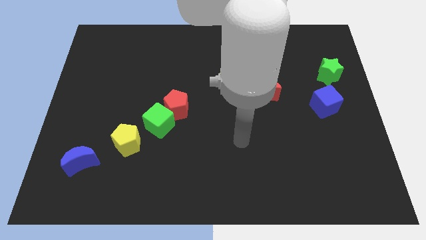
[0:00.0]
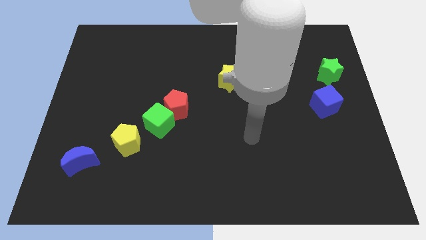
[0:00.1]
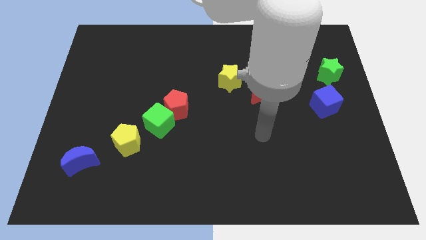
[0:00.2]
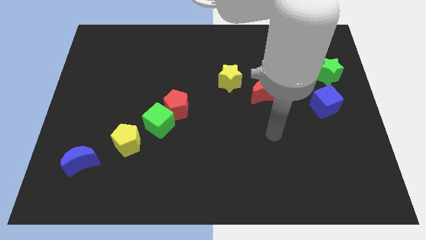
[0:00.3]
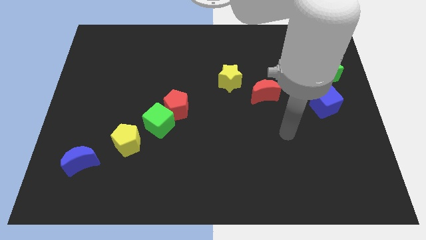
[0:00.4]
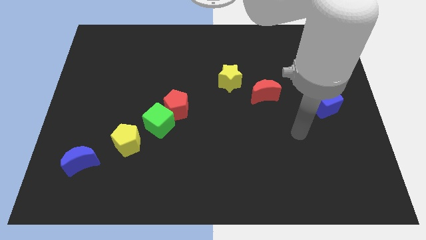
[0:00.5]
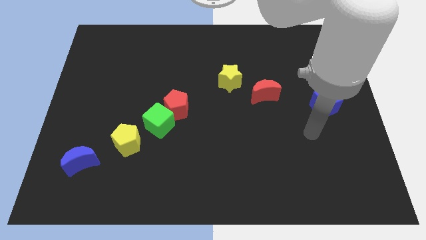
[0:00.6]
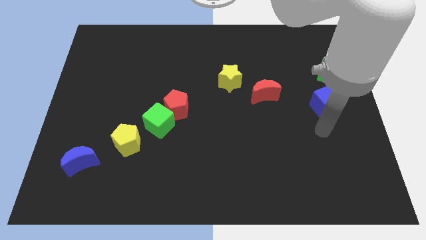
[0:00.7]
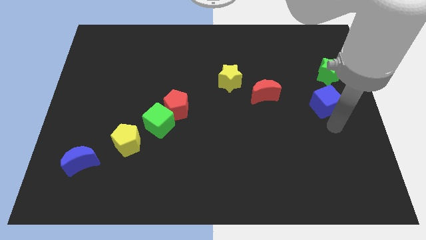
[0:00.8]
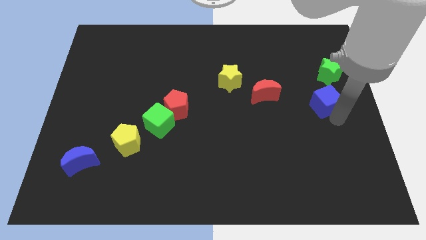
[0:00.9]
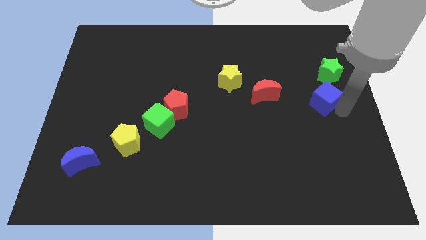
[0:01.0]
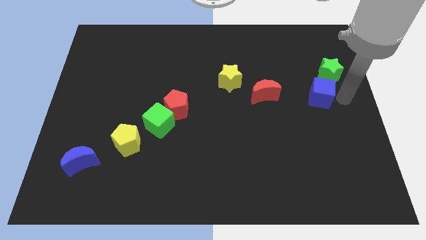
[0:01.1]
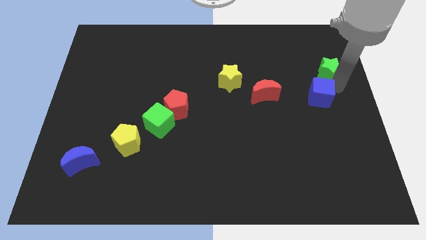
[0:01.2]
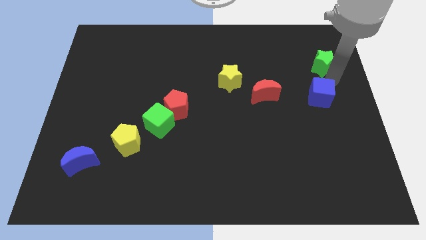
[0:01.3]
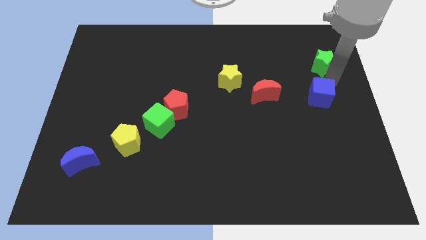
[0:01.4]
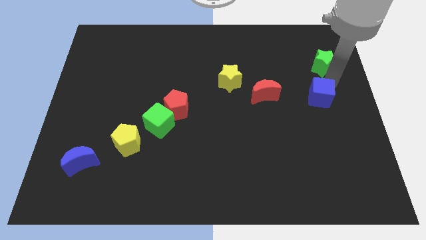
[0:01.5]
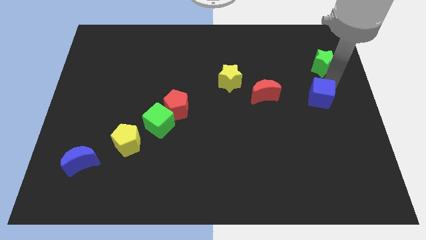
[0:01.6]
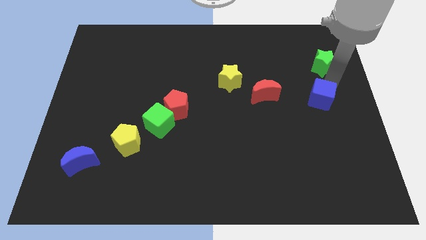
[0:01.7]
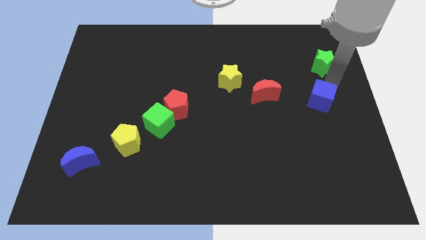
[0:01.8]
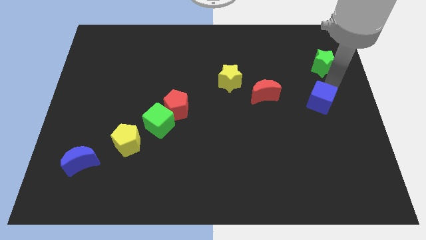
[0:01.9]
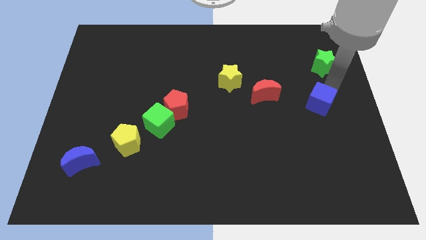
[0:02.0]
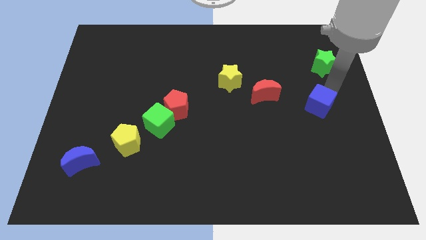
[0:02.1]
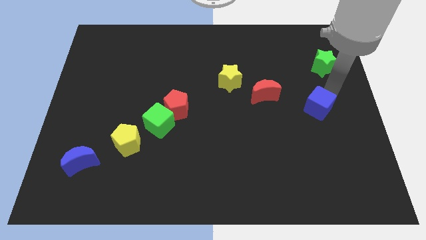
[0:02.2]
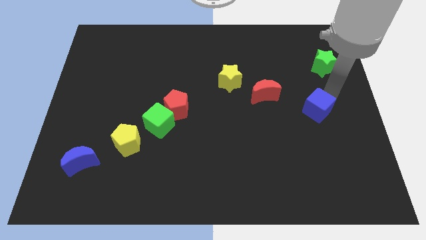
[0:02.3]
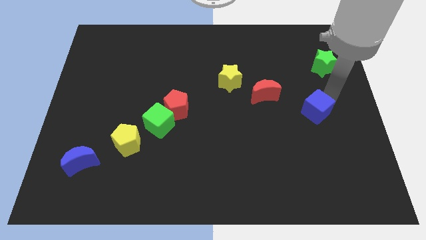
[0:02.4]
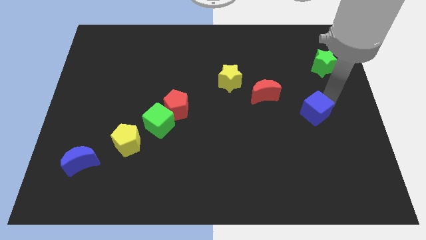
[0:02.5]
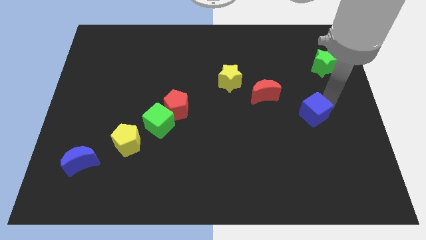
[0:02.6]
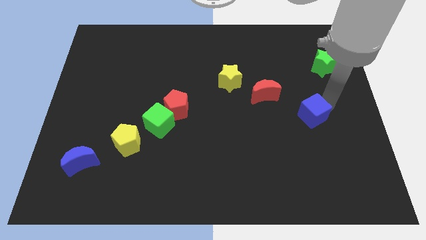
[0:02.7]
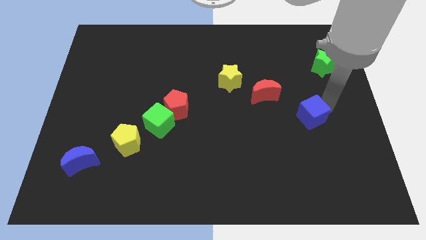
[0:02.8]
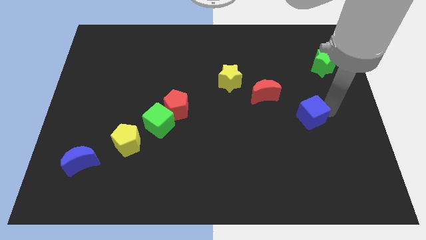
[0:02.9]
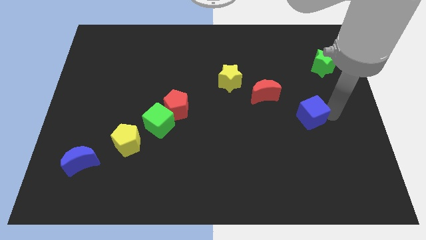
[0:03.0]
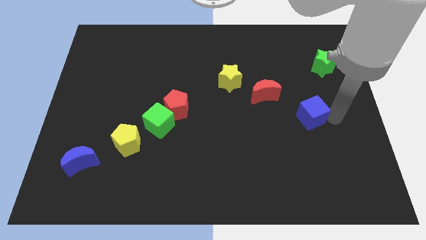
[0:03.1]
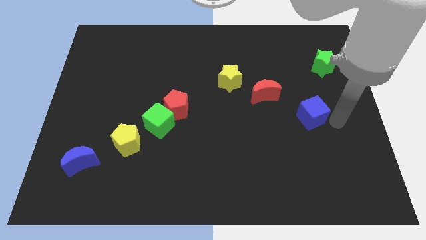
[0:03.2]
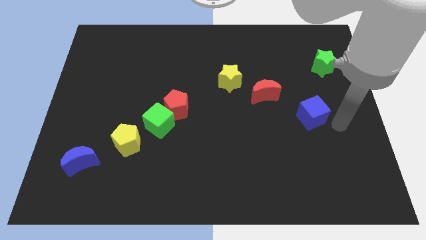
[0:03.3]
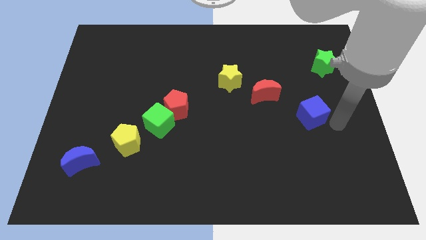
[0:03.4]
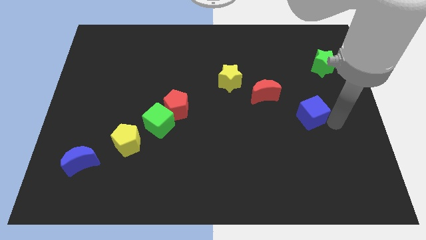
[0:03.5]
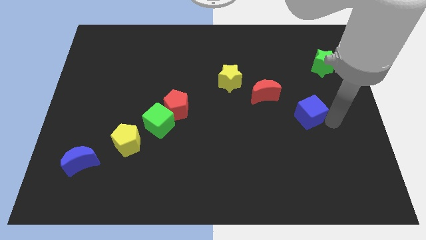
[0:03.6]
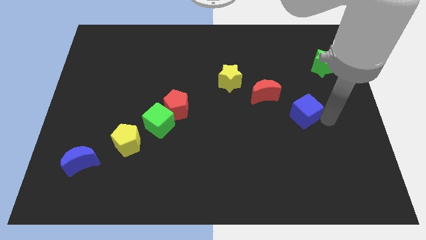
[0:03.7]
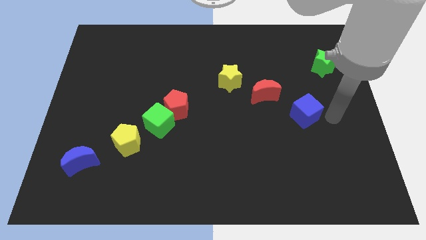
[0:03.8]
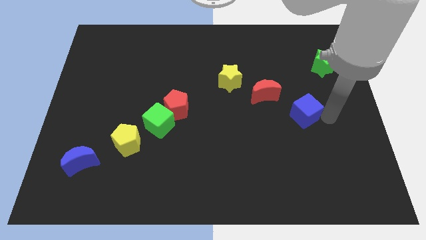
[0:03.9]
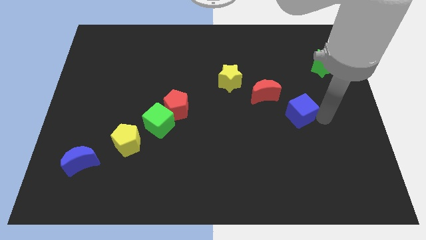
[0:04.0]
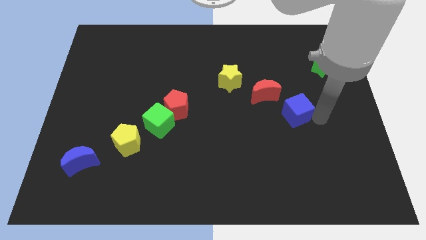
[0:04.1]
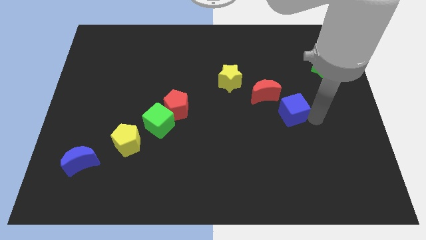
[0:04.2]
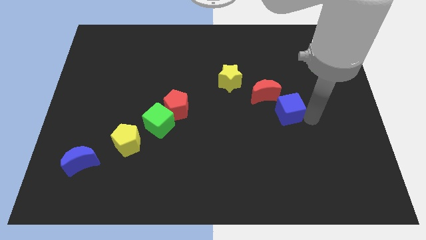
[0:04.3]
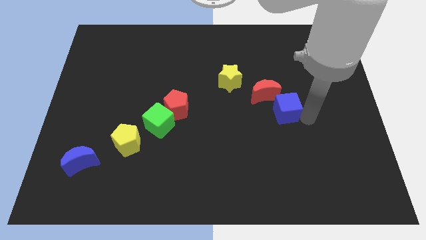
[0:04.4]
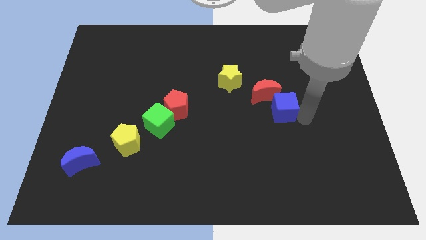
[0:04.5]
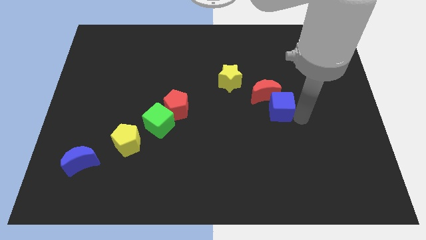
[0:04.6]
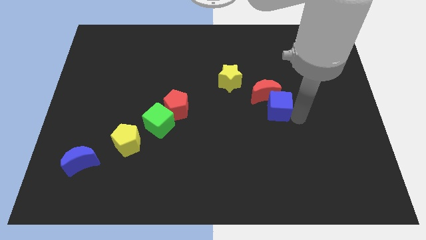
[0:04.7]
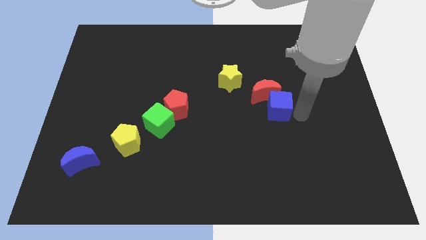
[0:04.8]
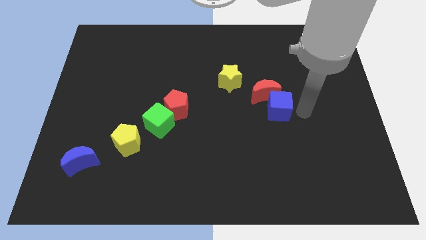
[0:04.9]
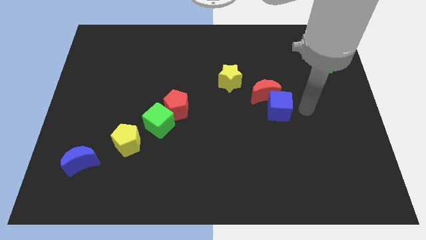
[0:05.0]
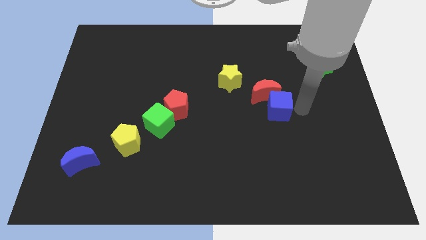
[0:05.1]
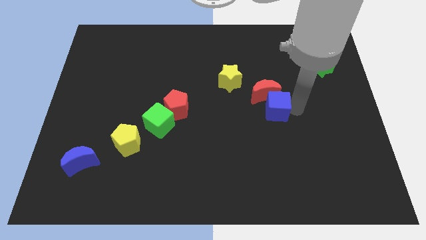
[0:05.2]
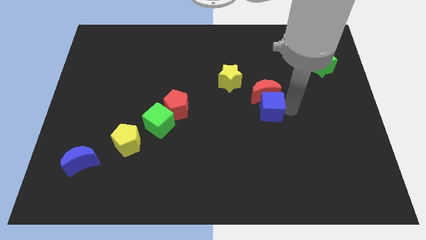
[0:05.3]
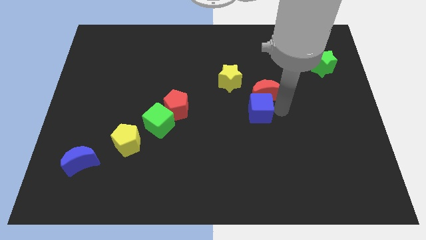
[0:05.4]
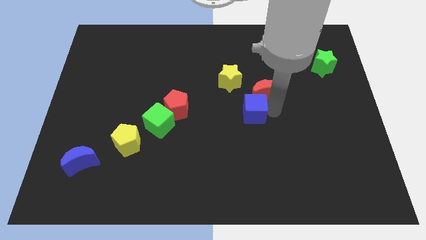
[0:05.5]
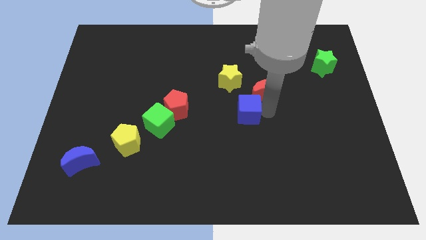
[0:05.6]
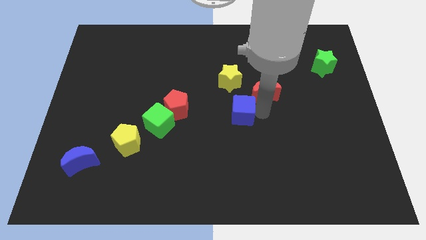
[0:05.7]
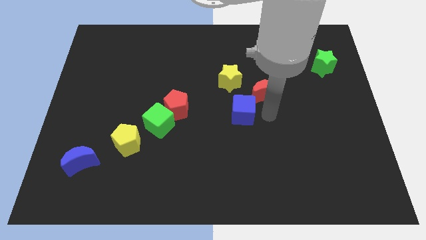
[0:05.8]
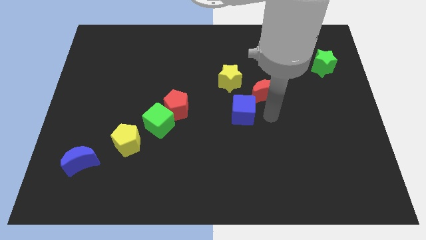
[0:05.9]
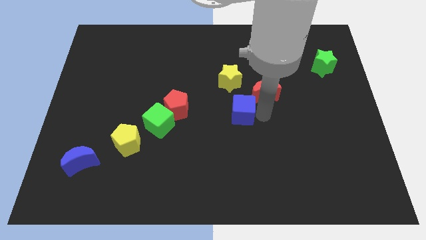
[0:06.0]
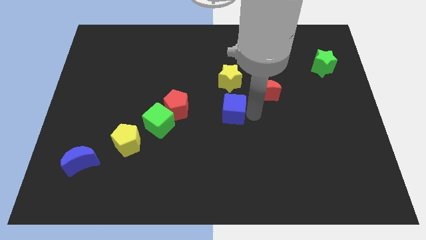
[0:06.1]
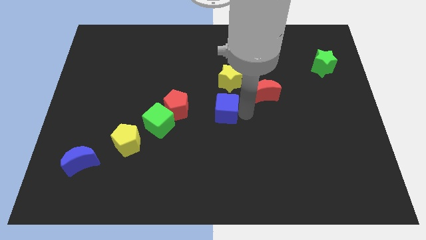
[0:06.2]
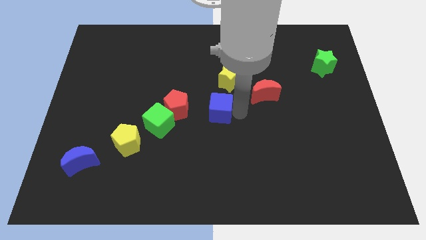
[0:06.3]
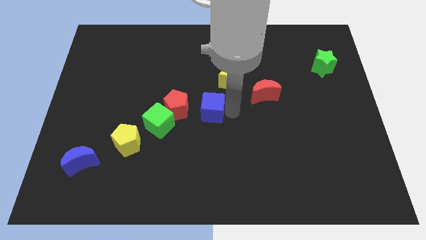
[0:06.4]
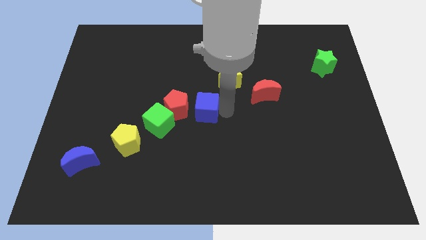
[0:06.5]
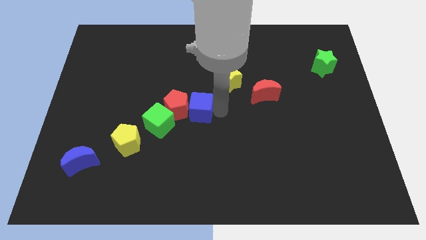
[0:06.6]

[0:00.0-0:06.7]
put the blue cube to the red pentagon
